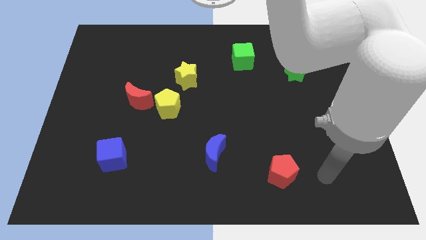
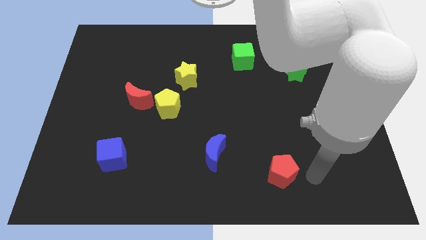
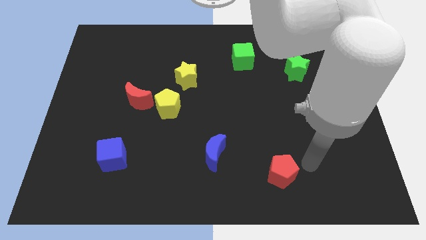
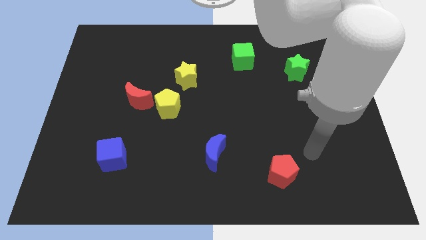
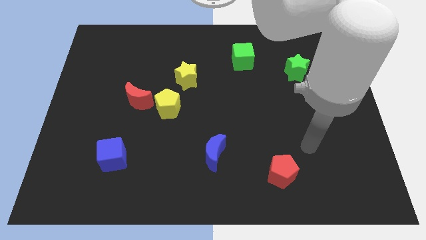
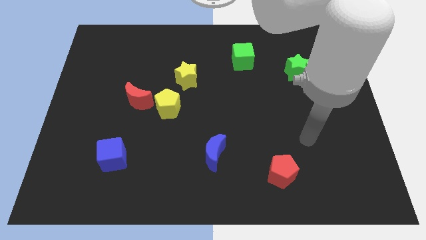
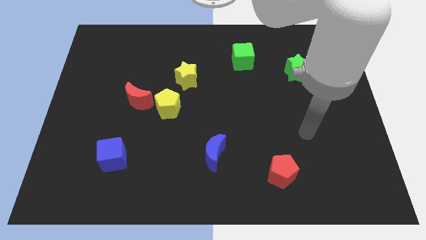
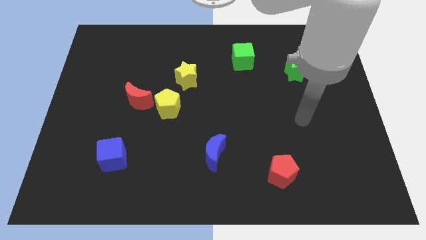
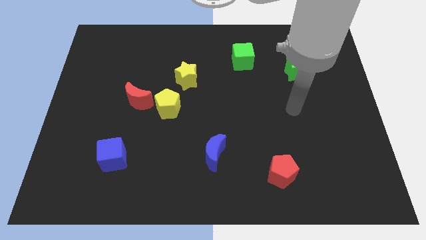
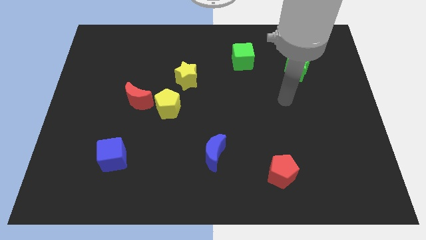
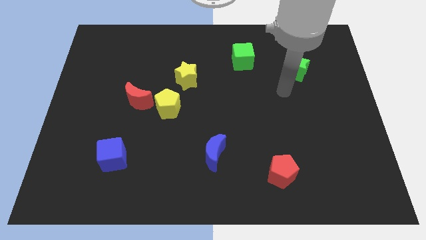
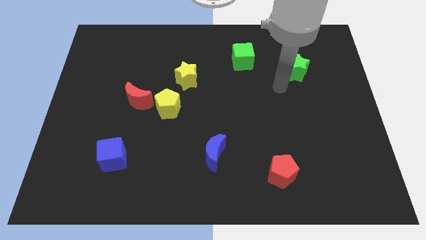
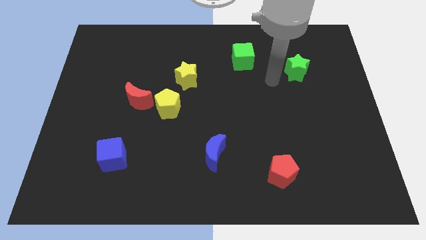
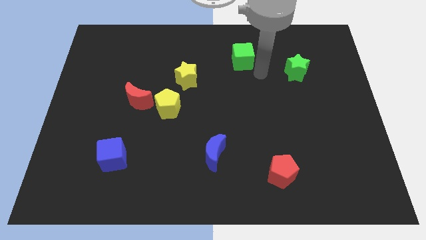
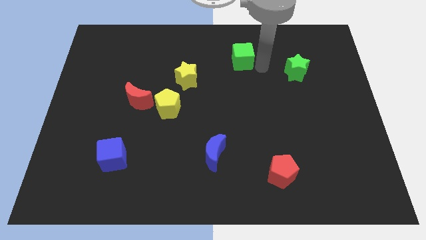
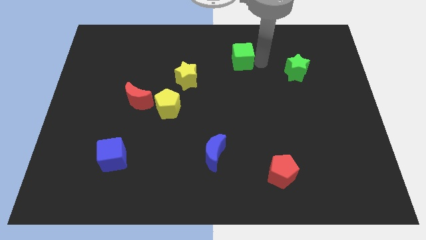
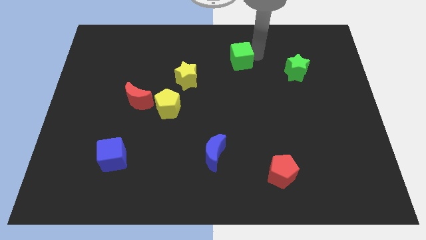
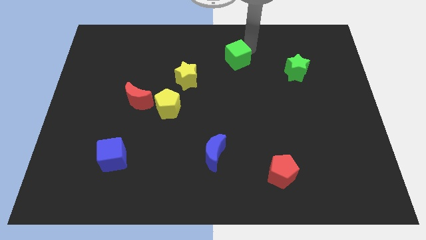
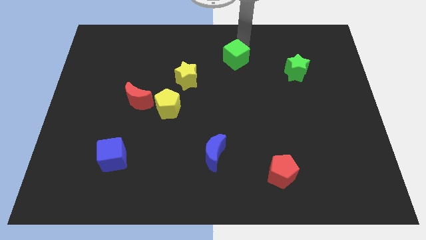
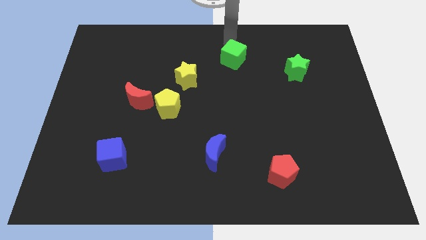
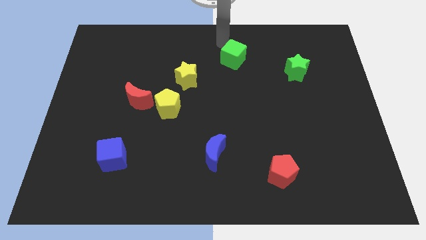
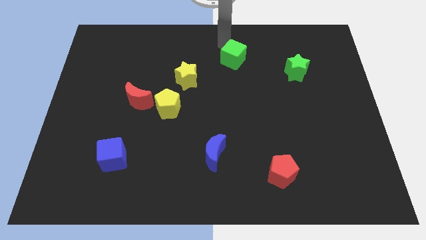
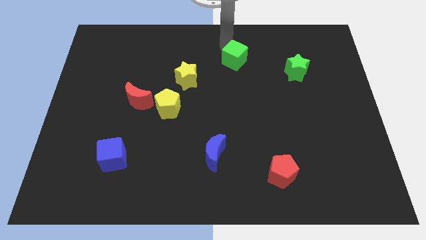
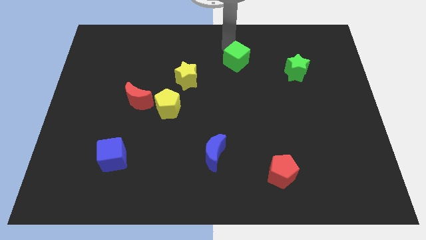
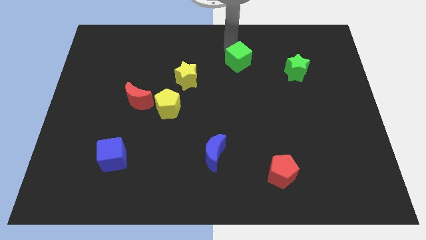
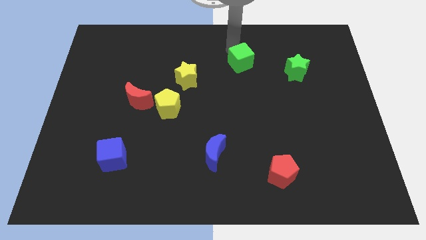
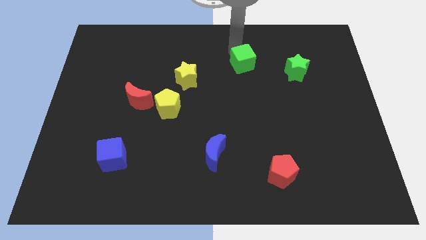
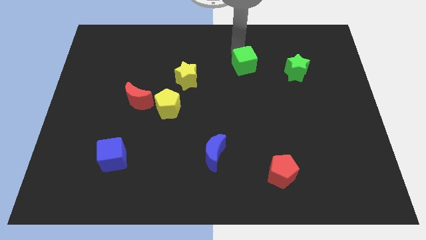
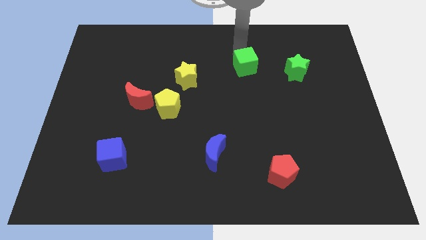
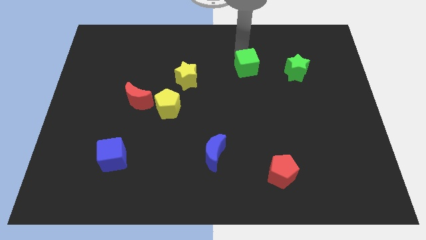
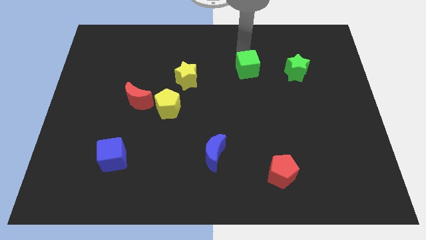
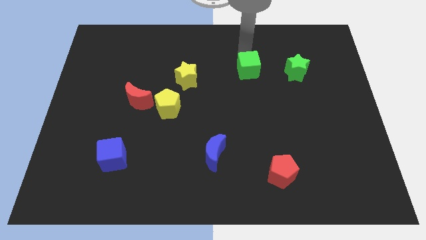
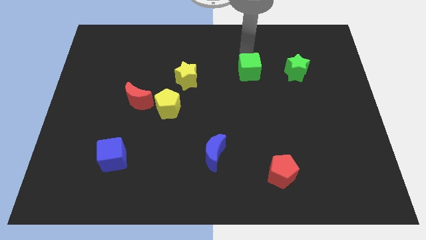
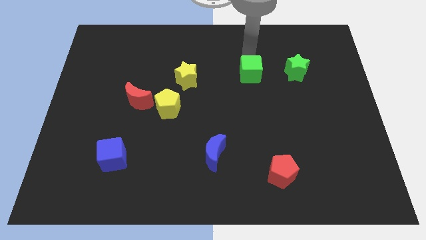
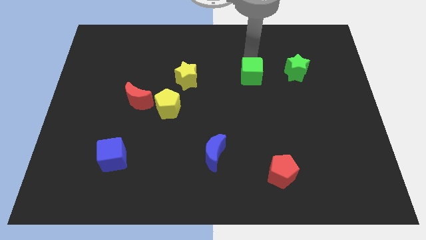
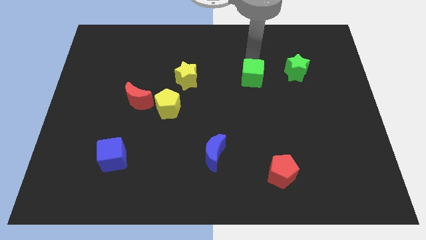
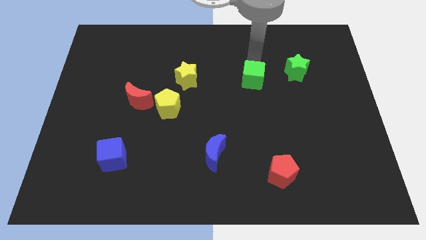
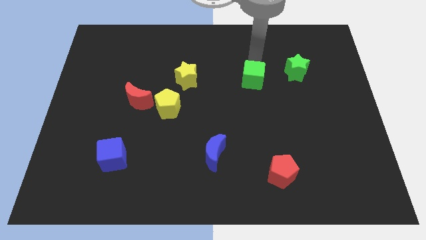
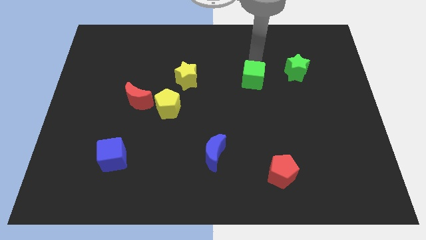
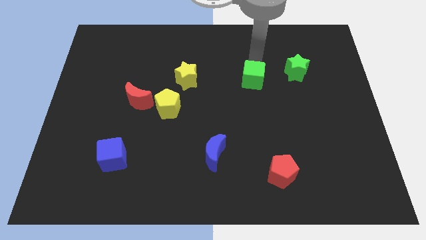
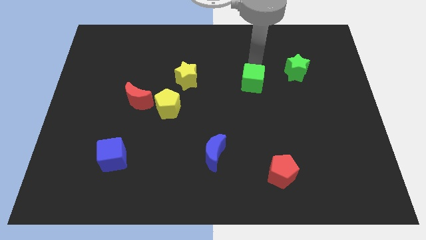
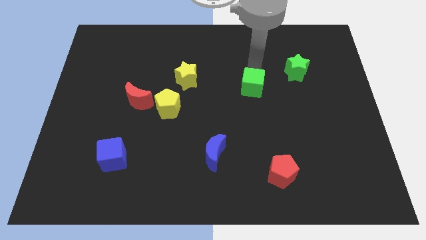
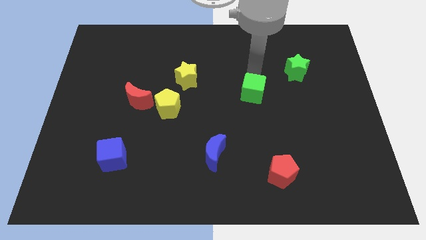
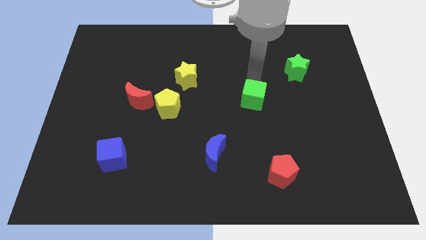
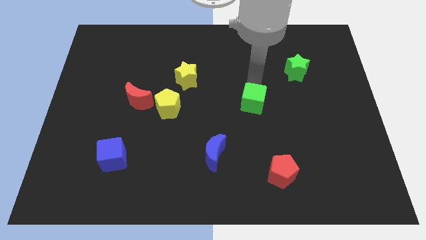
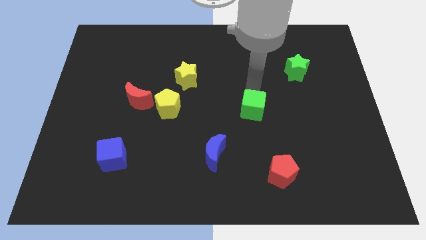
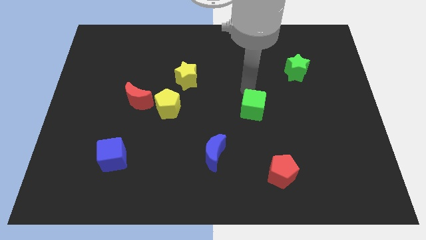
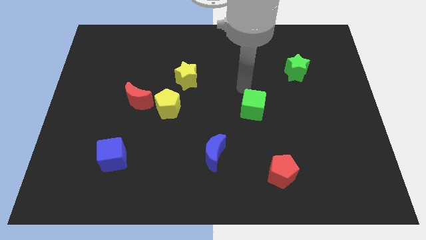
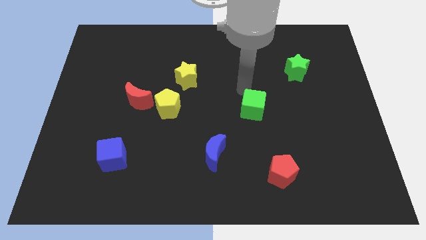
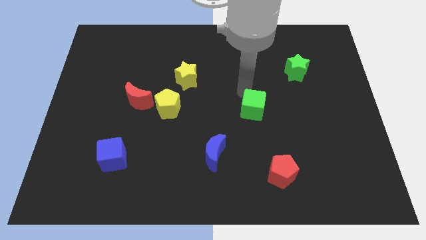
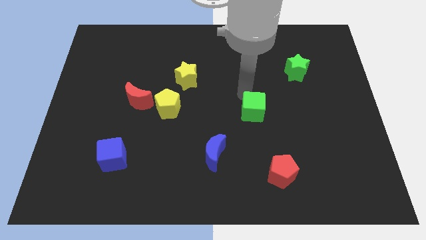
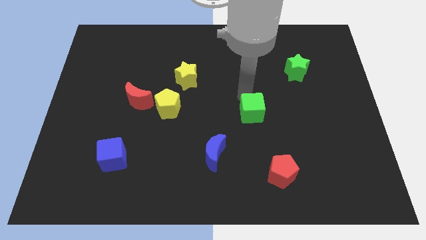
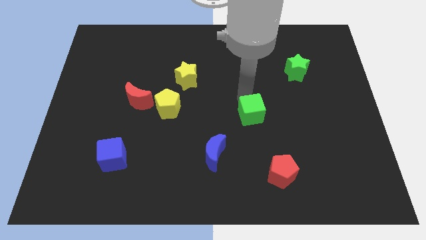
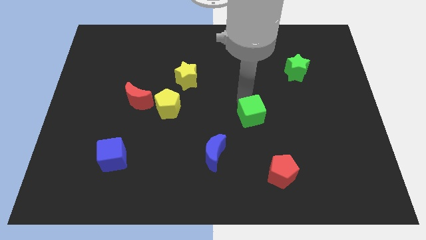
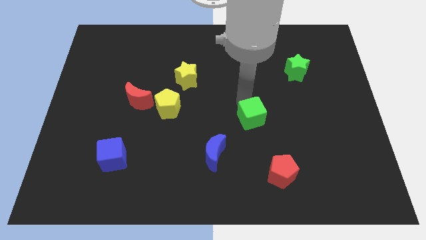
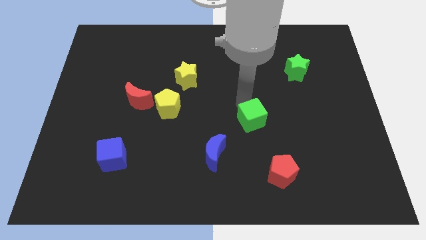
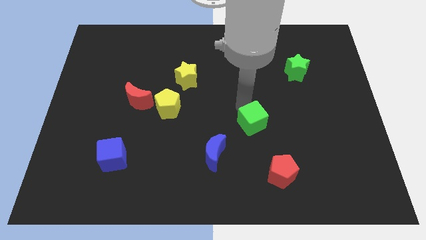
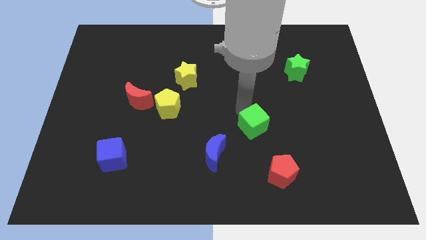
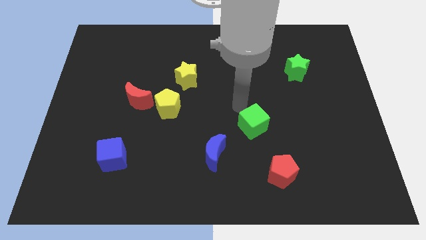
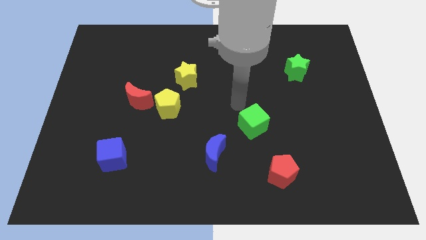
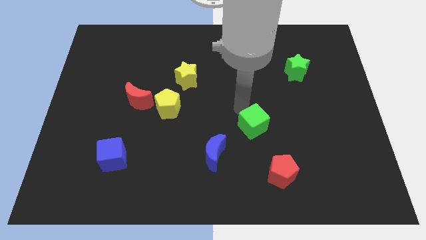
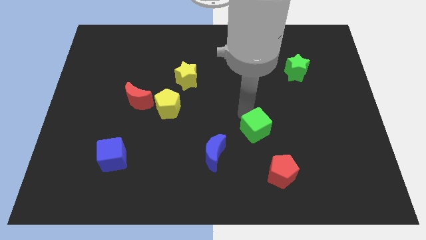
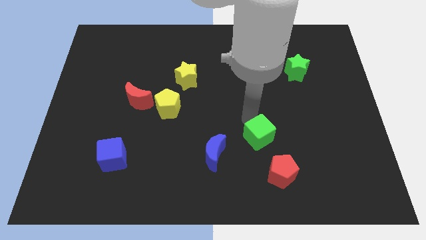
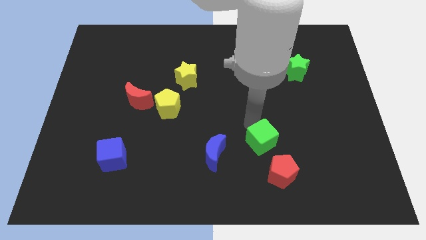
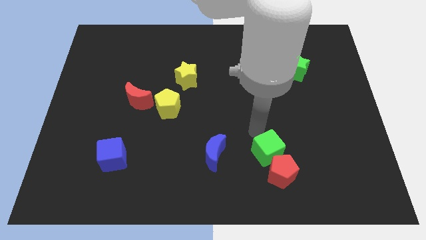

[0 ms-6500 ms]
put the green cube to the red pentagon

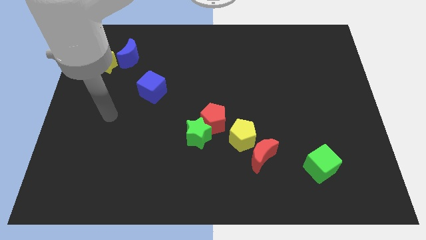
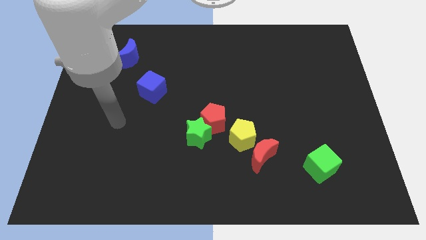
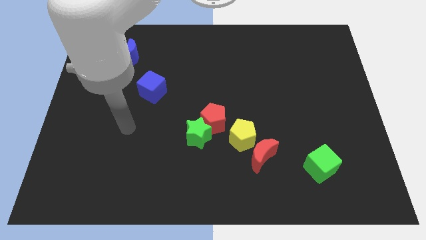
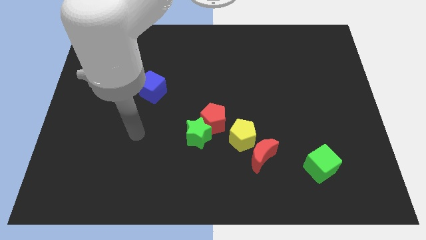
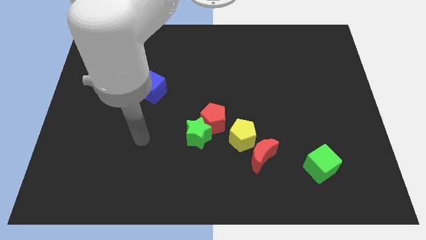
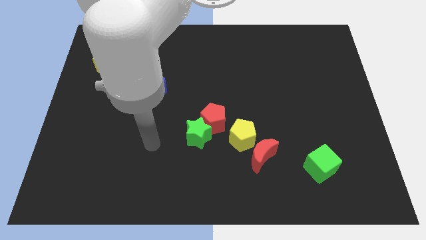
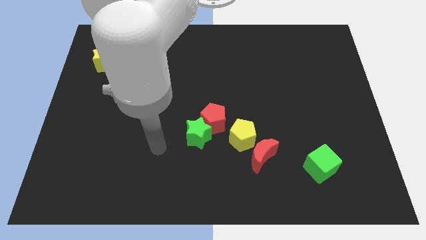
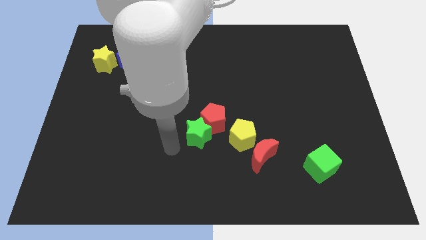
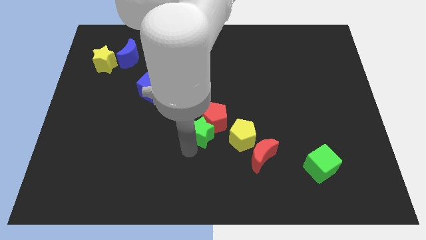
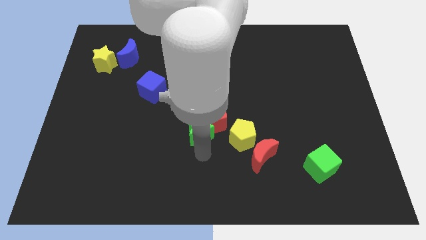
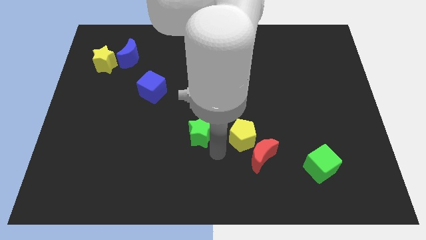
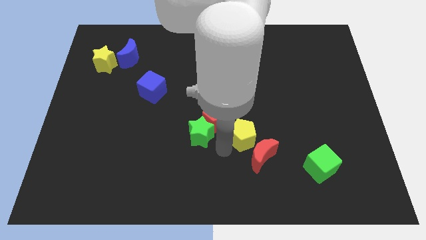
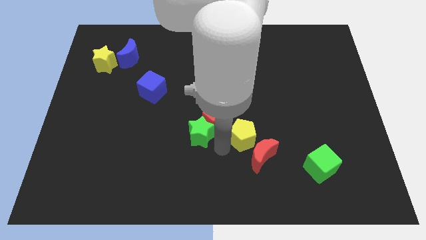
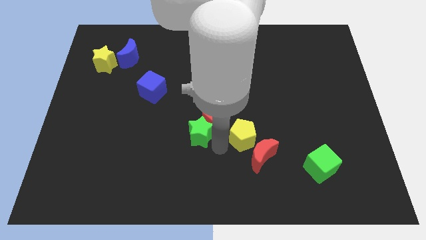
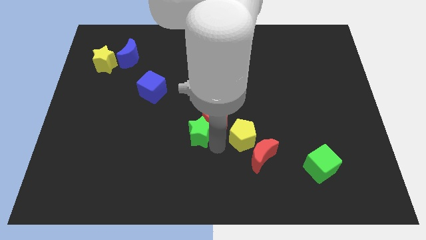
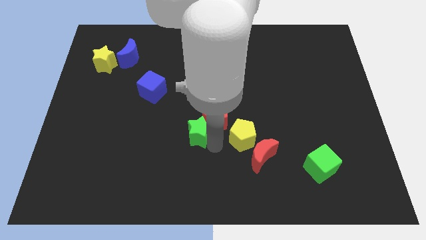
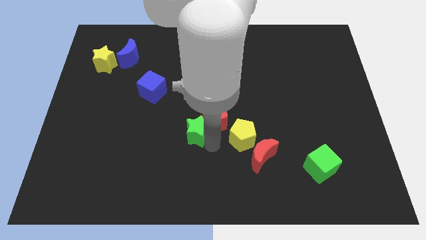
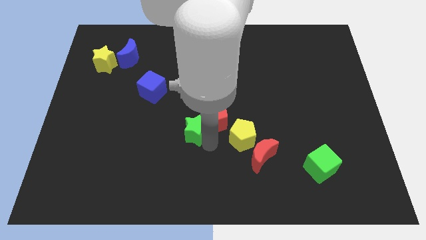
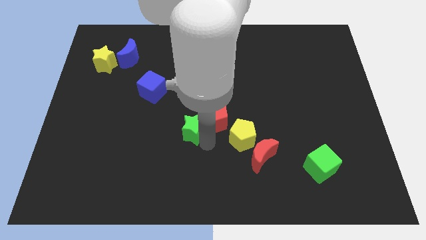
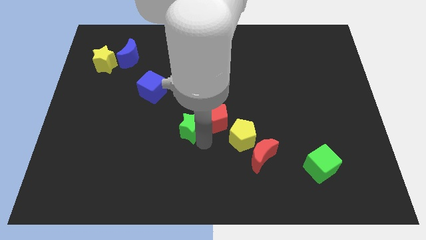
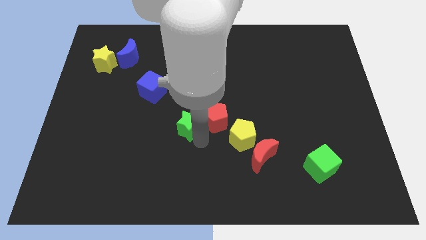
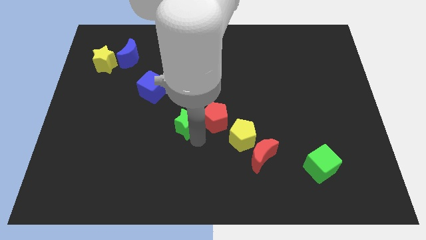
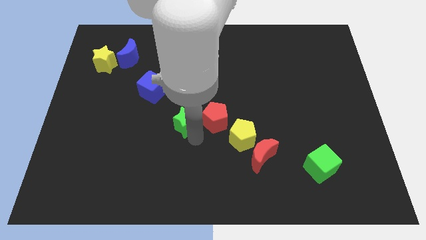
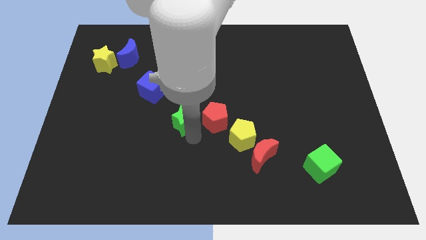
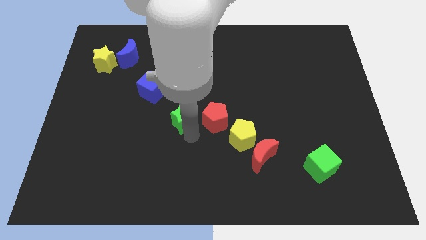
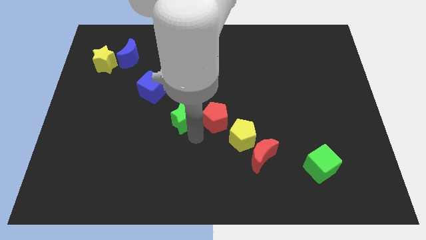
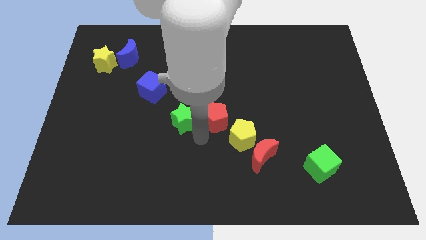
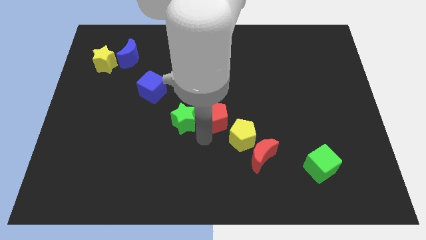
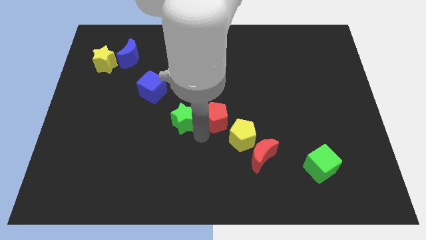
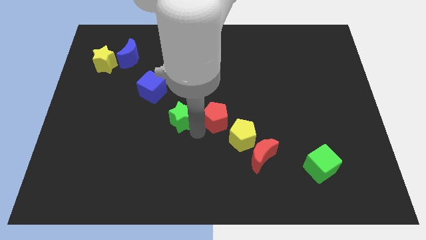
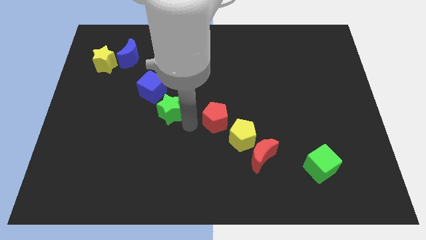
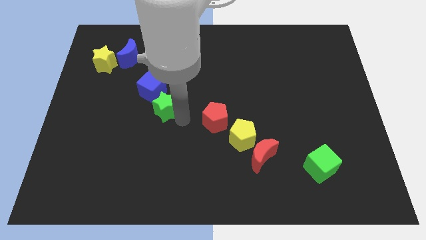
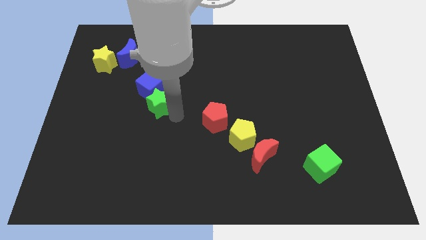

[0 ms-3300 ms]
put the green star close to the blue cube
